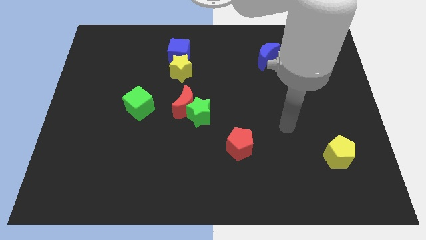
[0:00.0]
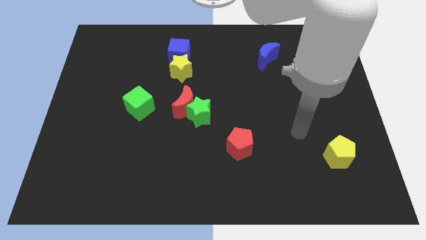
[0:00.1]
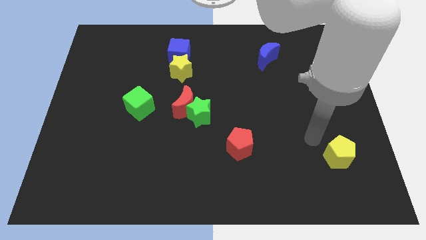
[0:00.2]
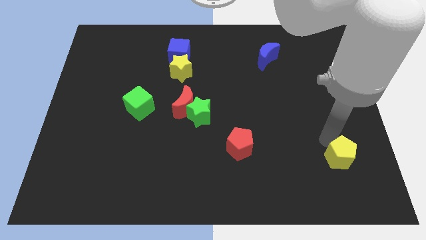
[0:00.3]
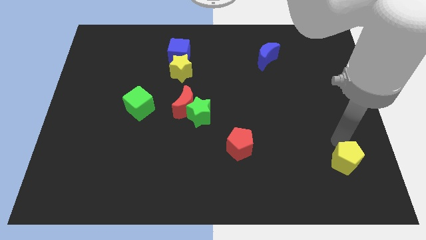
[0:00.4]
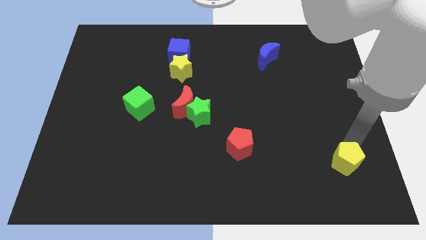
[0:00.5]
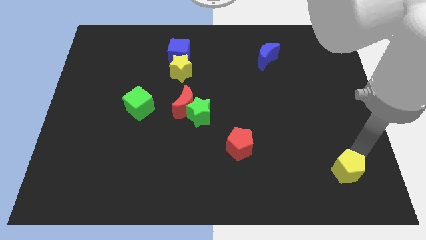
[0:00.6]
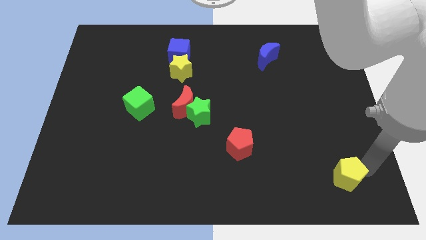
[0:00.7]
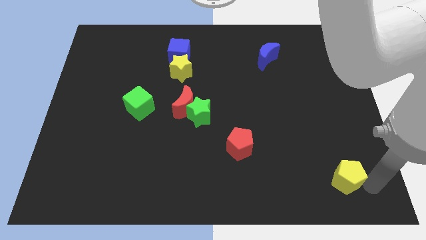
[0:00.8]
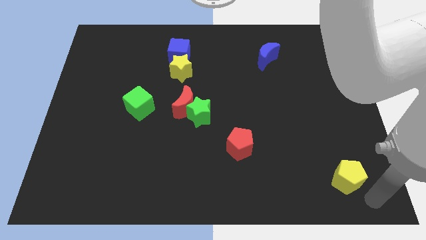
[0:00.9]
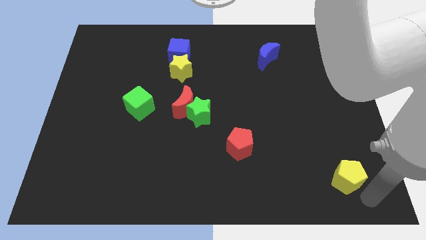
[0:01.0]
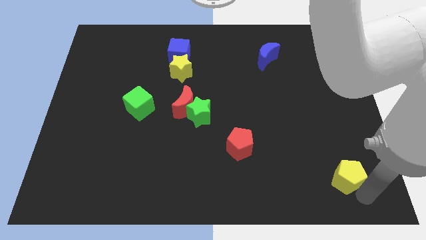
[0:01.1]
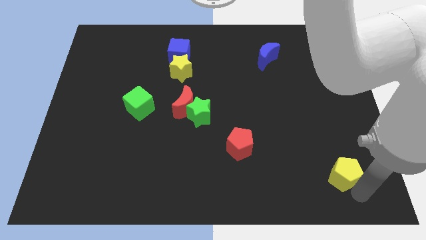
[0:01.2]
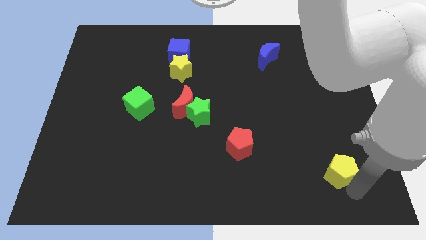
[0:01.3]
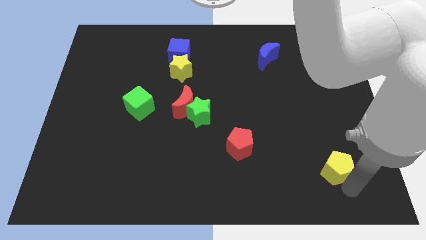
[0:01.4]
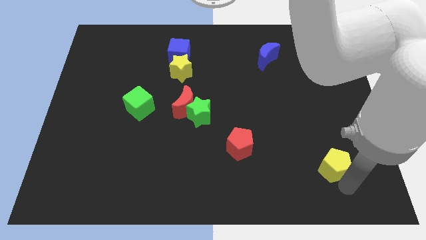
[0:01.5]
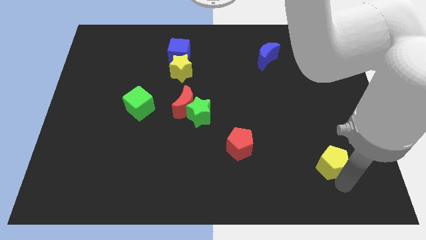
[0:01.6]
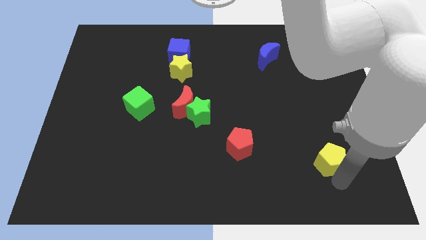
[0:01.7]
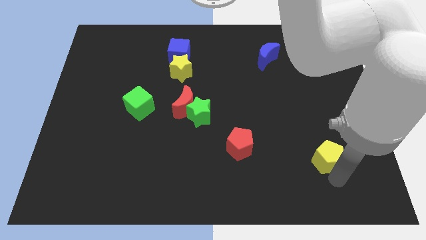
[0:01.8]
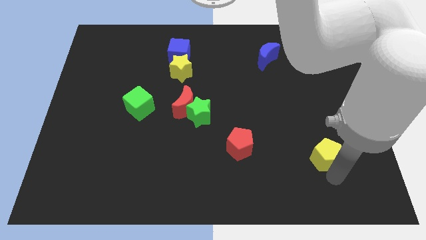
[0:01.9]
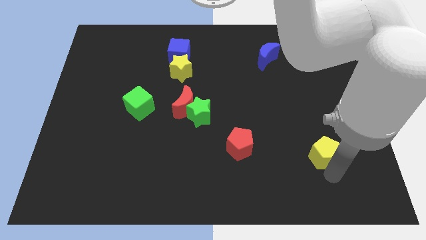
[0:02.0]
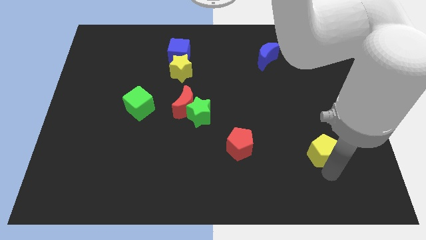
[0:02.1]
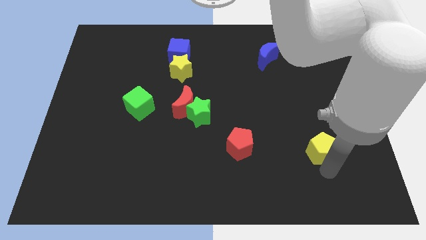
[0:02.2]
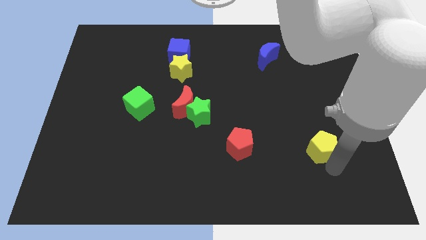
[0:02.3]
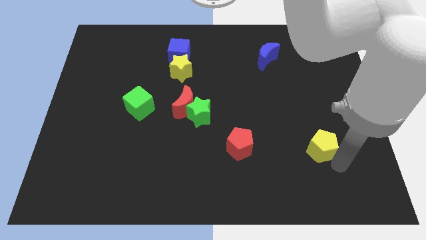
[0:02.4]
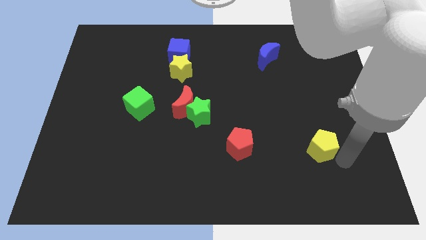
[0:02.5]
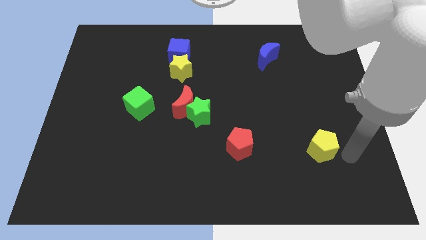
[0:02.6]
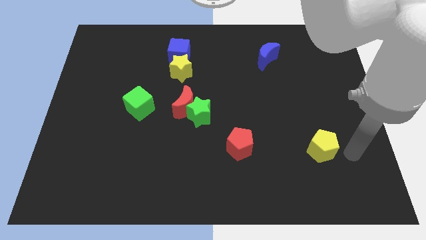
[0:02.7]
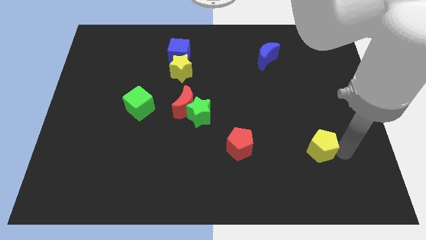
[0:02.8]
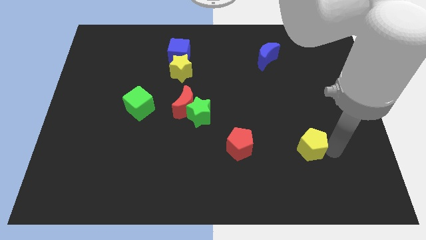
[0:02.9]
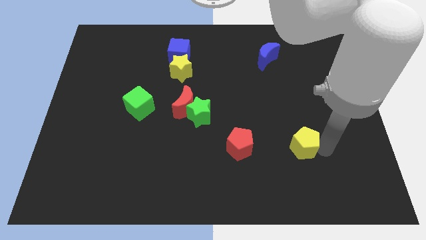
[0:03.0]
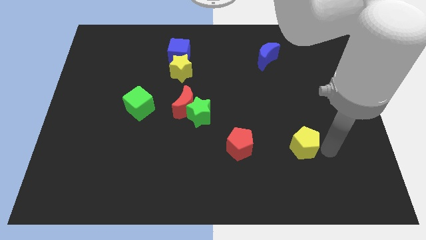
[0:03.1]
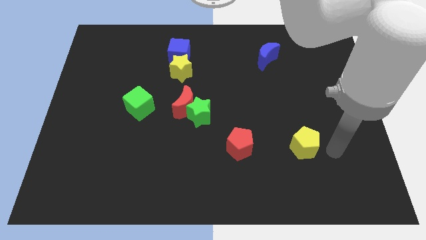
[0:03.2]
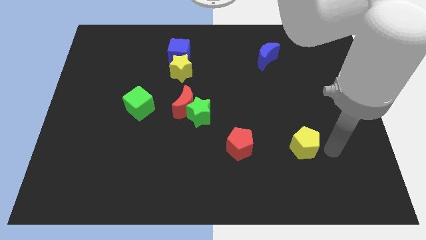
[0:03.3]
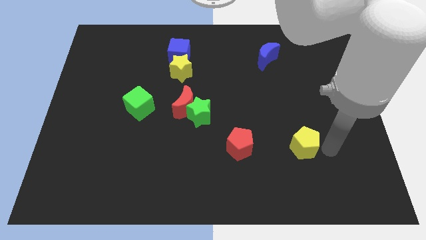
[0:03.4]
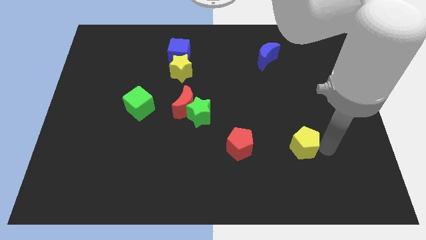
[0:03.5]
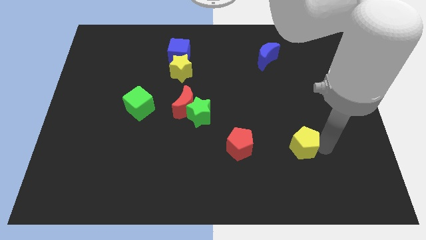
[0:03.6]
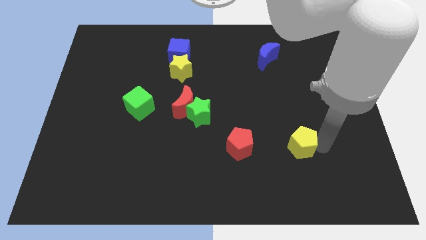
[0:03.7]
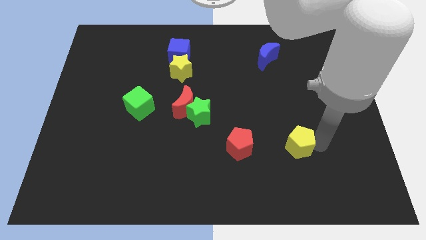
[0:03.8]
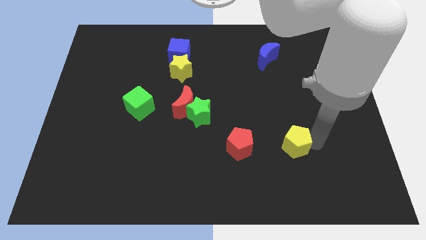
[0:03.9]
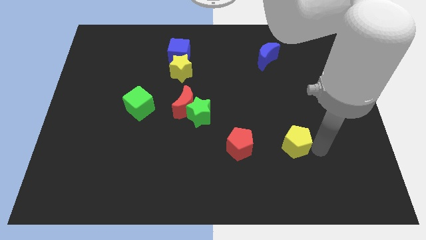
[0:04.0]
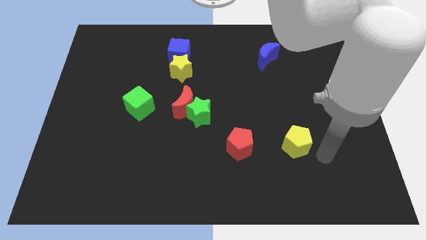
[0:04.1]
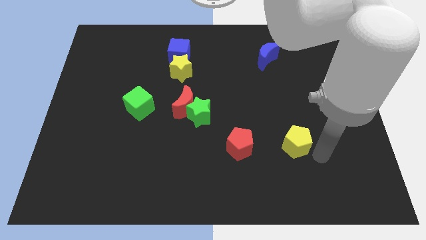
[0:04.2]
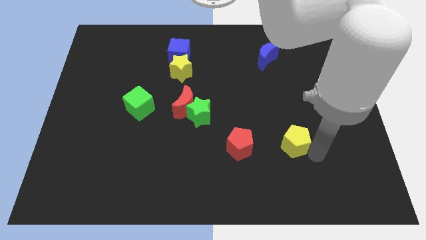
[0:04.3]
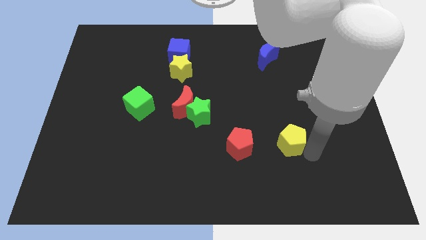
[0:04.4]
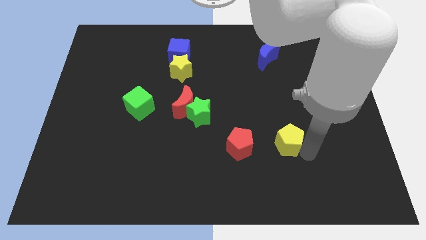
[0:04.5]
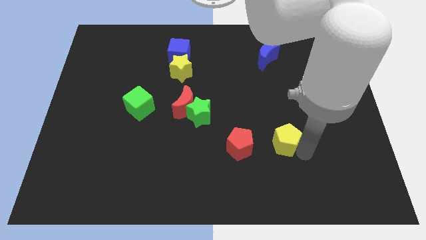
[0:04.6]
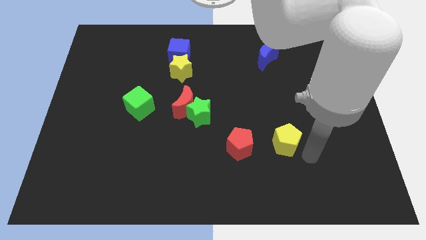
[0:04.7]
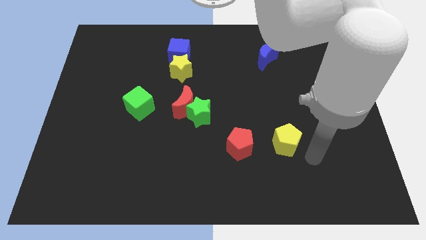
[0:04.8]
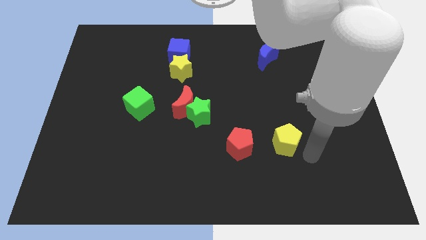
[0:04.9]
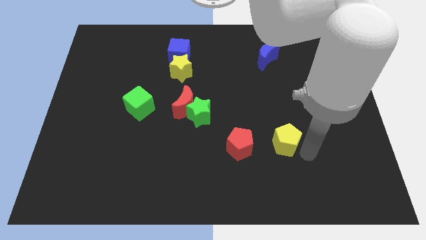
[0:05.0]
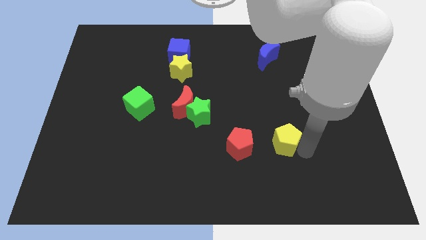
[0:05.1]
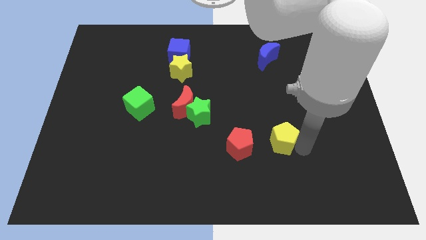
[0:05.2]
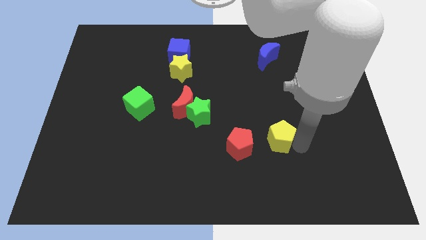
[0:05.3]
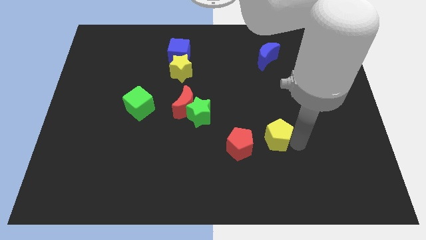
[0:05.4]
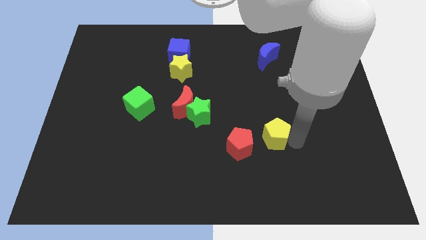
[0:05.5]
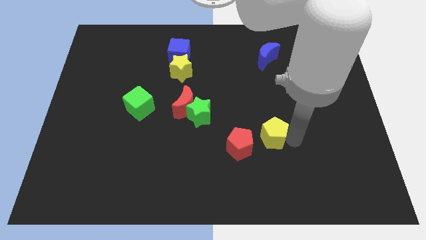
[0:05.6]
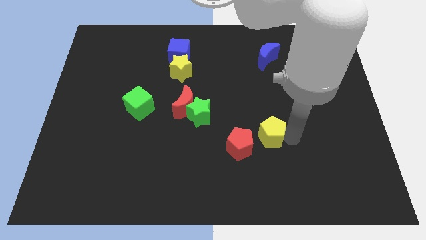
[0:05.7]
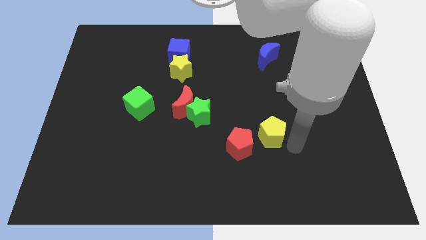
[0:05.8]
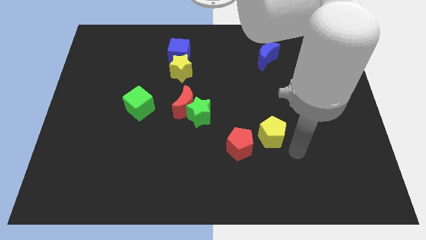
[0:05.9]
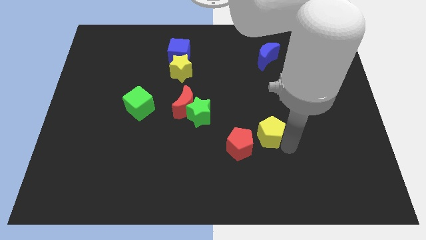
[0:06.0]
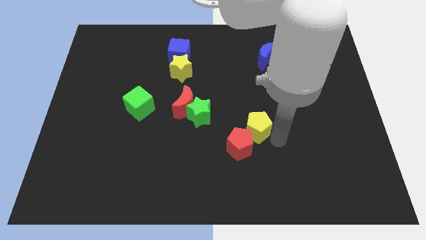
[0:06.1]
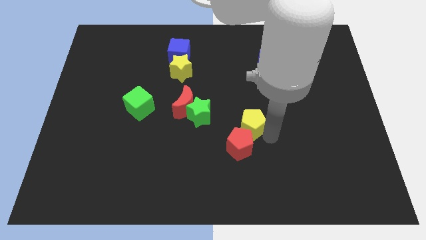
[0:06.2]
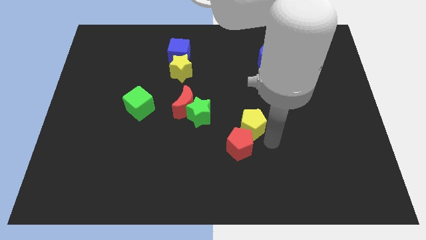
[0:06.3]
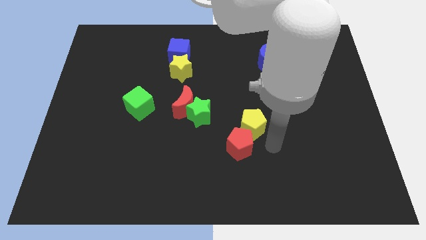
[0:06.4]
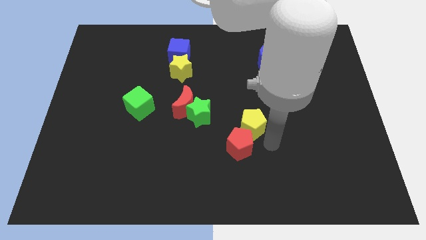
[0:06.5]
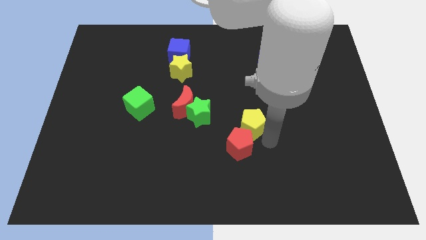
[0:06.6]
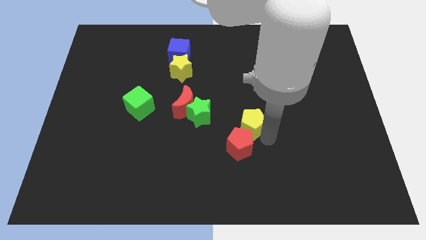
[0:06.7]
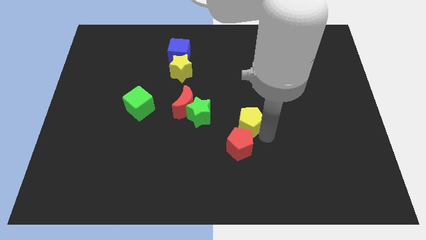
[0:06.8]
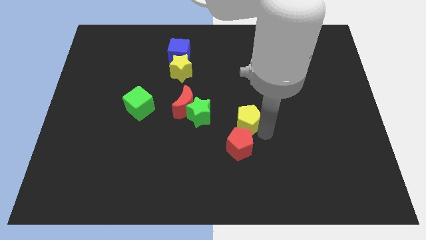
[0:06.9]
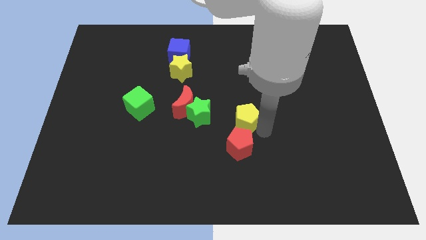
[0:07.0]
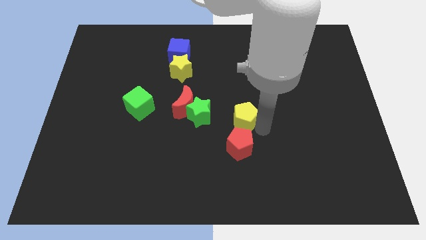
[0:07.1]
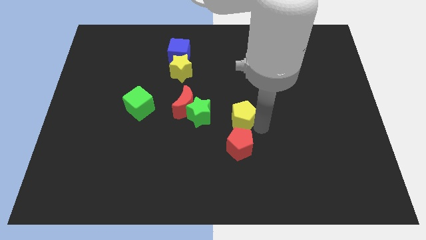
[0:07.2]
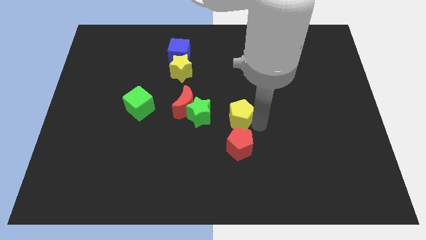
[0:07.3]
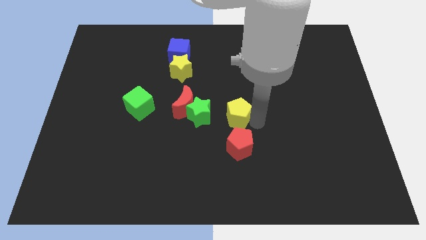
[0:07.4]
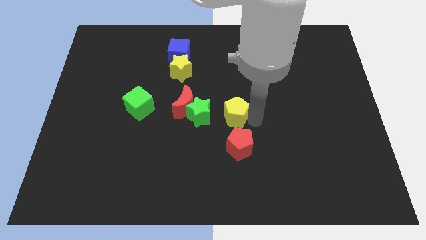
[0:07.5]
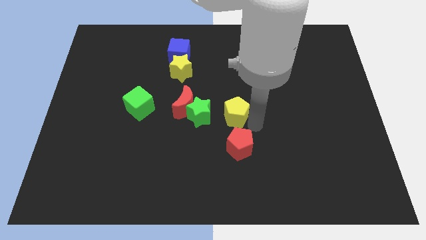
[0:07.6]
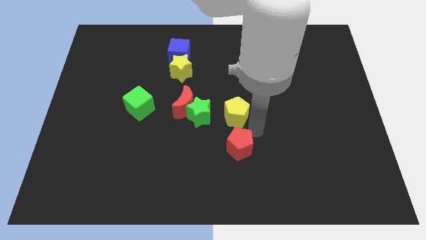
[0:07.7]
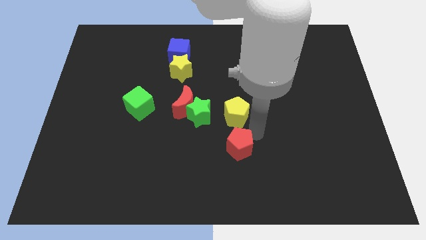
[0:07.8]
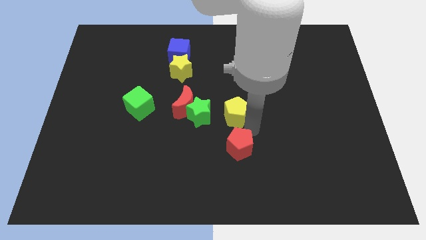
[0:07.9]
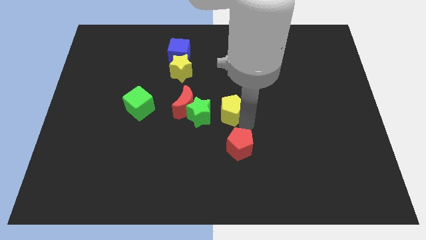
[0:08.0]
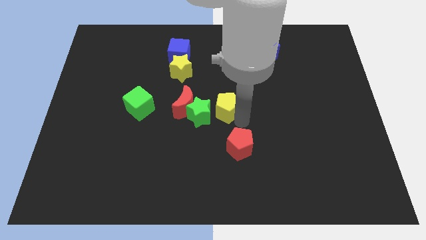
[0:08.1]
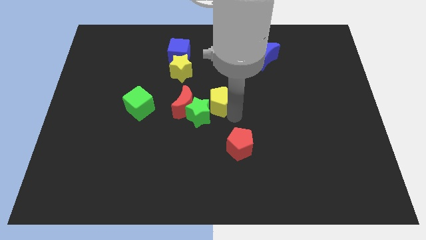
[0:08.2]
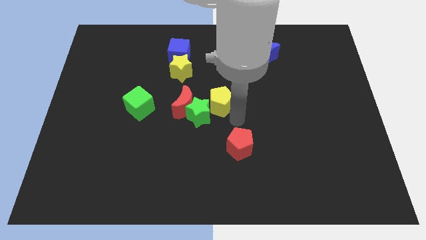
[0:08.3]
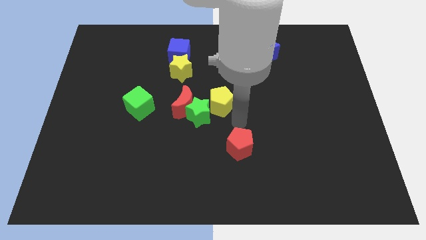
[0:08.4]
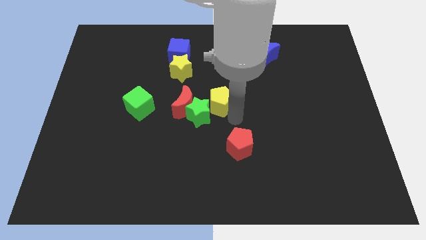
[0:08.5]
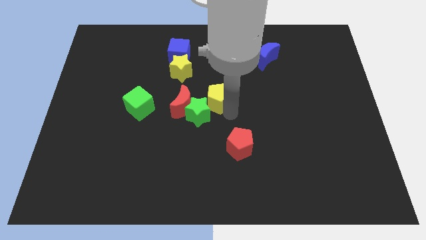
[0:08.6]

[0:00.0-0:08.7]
slide the yellow pentagon diagonally up and to the right of the red moon
